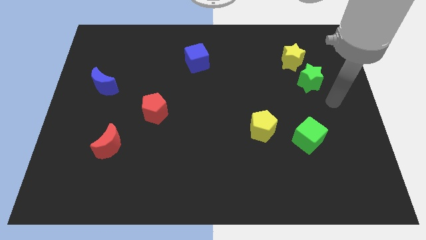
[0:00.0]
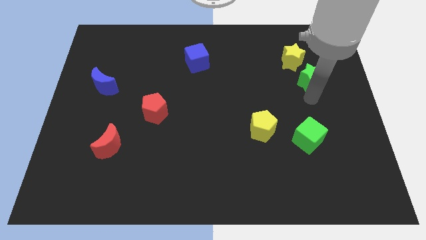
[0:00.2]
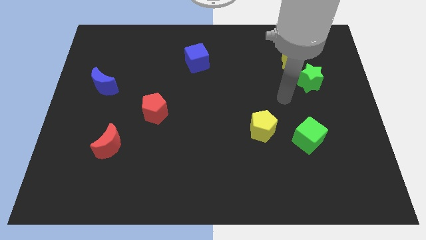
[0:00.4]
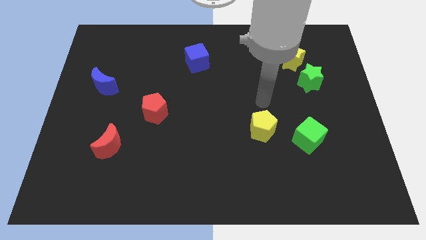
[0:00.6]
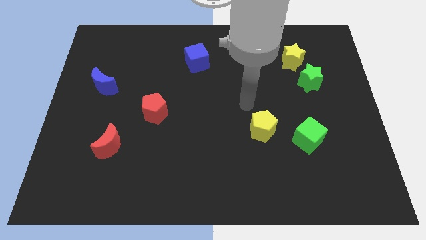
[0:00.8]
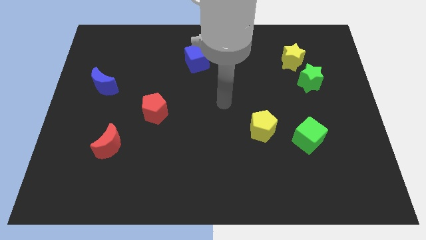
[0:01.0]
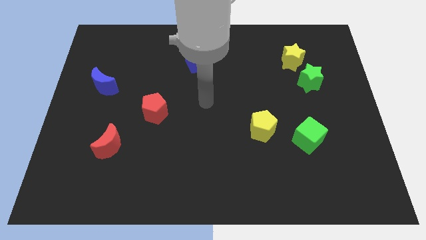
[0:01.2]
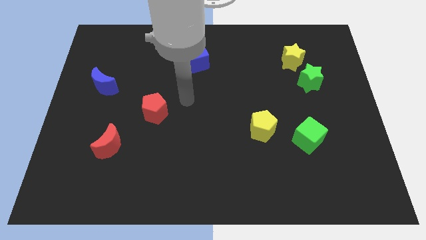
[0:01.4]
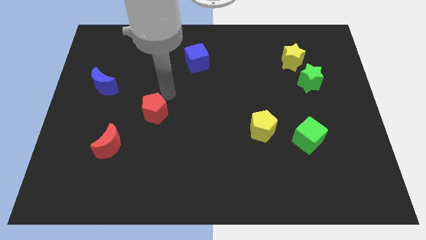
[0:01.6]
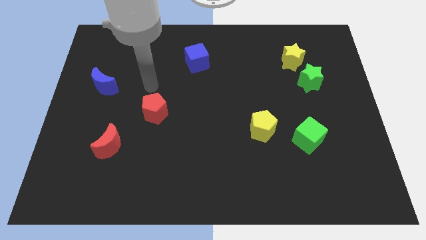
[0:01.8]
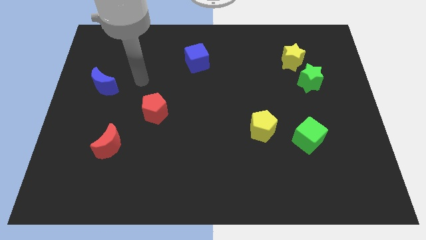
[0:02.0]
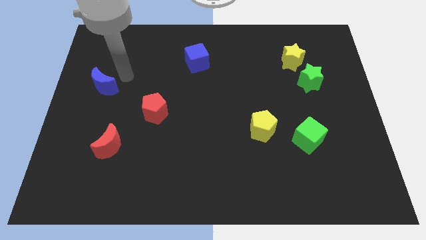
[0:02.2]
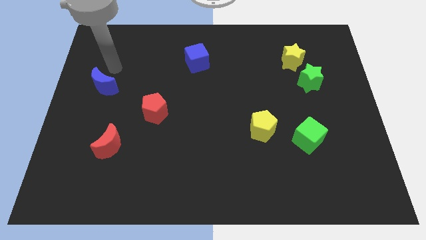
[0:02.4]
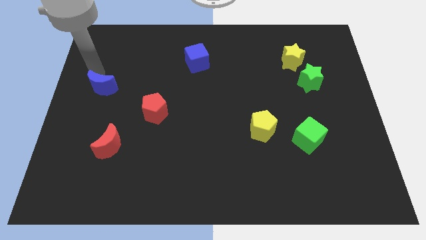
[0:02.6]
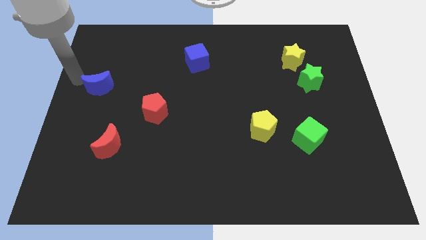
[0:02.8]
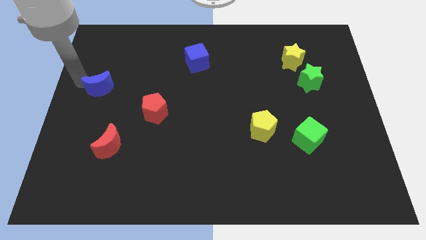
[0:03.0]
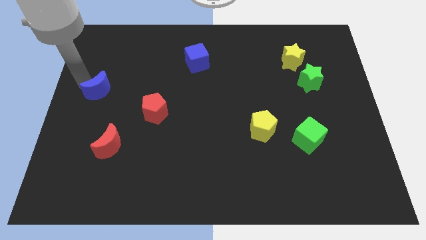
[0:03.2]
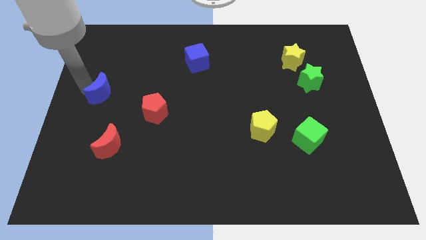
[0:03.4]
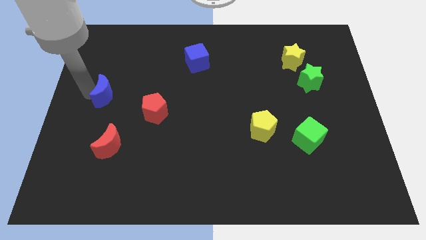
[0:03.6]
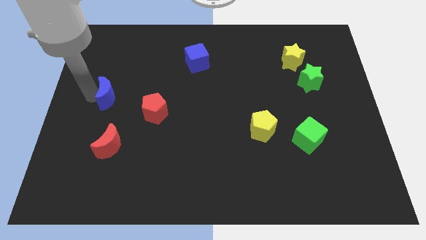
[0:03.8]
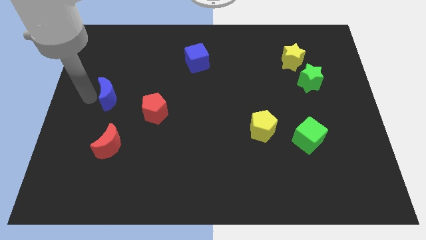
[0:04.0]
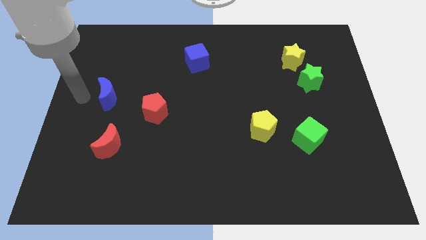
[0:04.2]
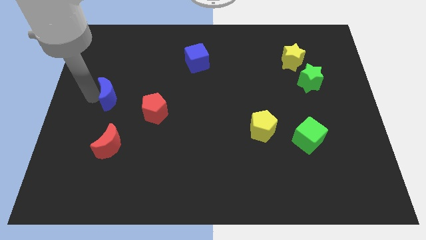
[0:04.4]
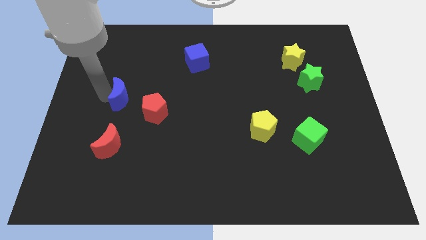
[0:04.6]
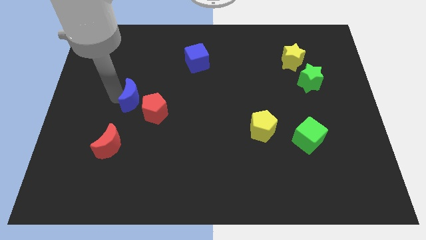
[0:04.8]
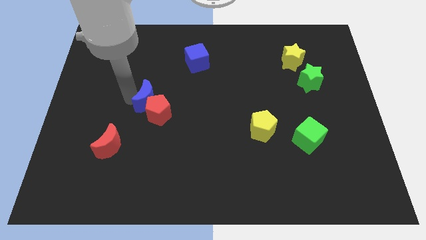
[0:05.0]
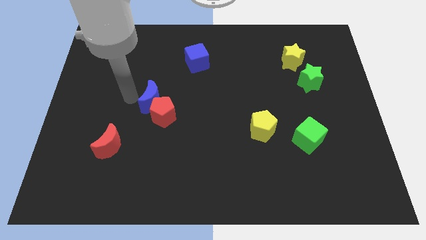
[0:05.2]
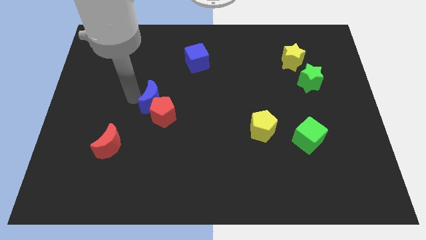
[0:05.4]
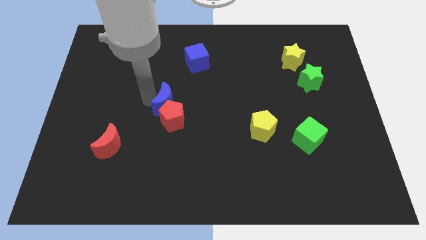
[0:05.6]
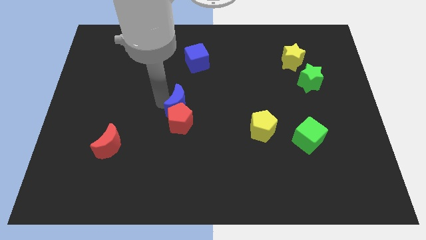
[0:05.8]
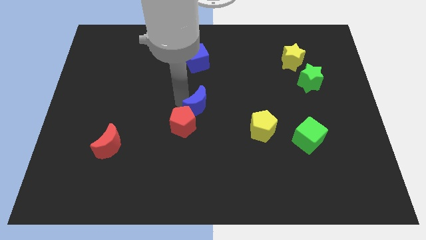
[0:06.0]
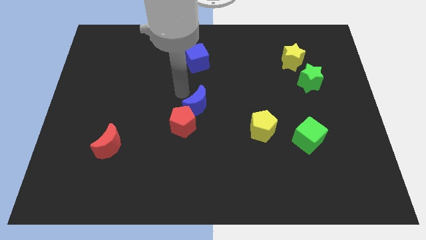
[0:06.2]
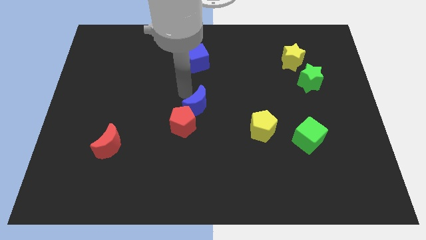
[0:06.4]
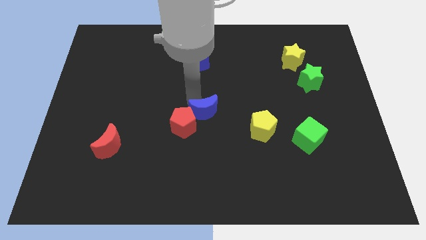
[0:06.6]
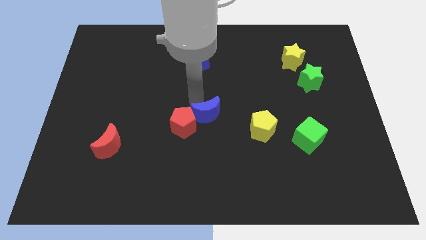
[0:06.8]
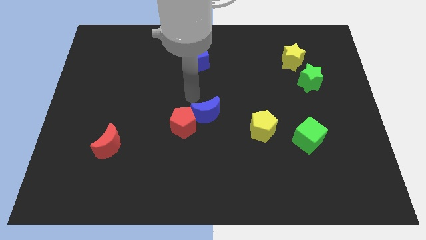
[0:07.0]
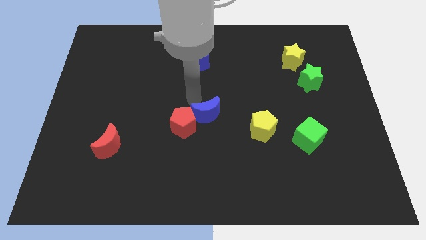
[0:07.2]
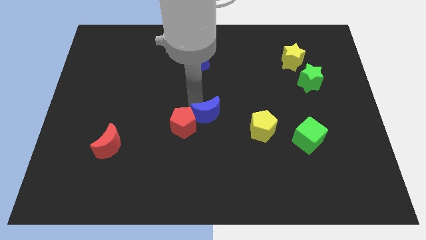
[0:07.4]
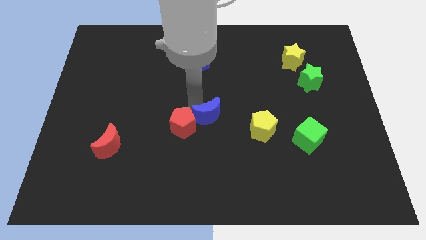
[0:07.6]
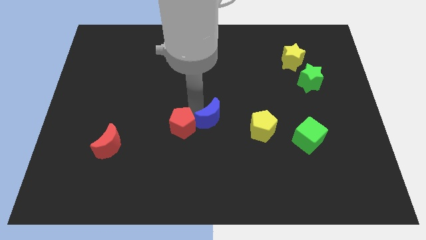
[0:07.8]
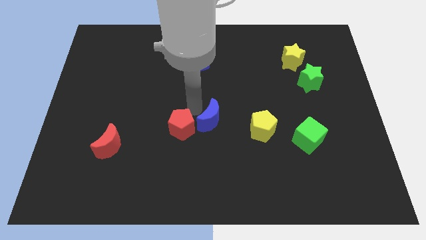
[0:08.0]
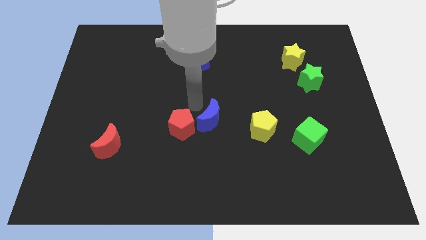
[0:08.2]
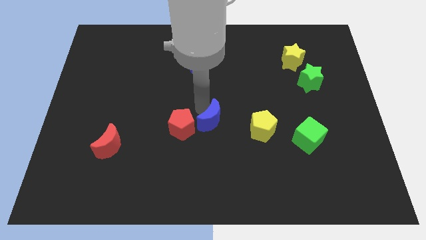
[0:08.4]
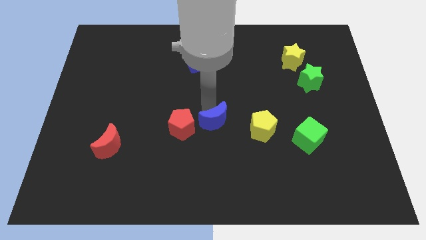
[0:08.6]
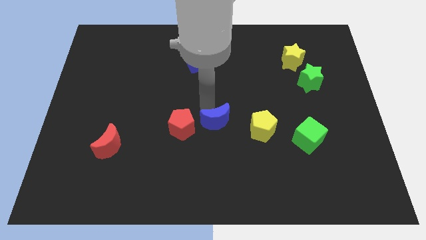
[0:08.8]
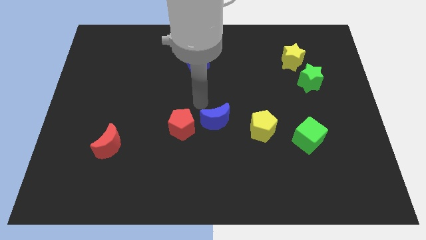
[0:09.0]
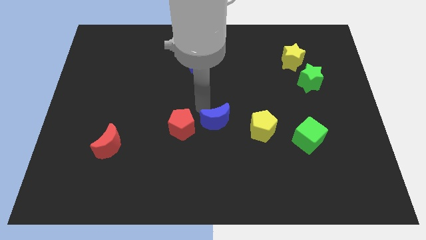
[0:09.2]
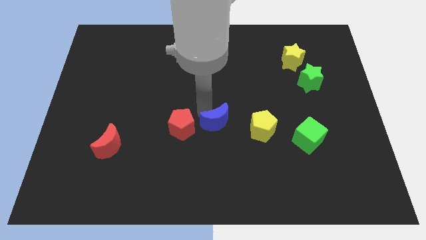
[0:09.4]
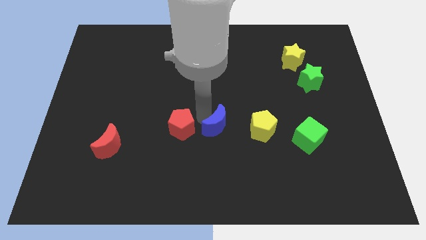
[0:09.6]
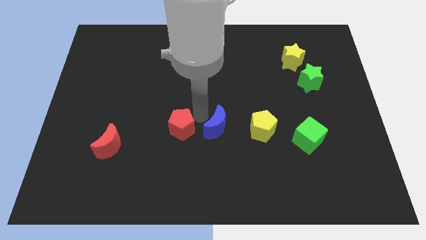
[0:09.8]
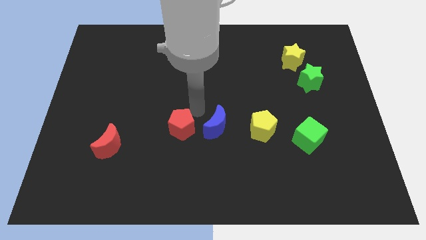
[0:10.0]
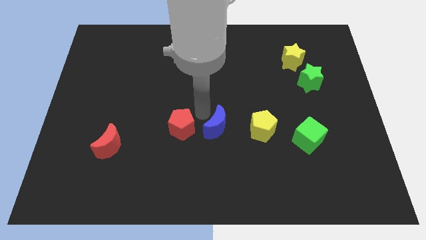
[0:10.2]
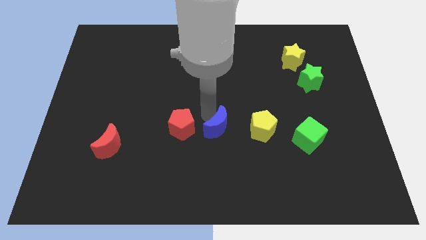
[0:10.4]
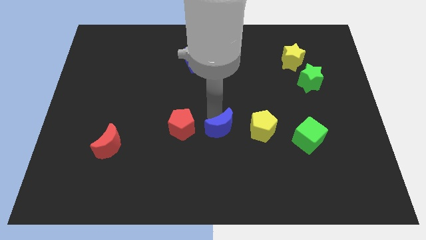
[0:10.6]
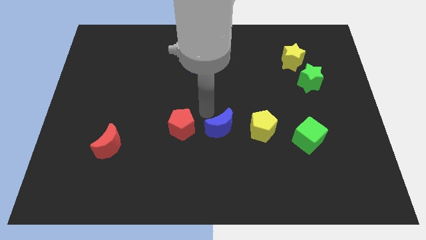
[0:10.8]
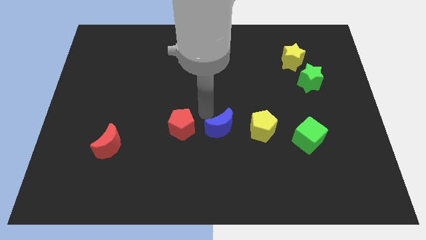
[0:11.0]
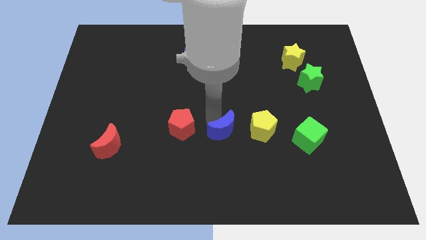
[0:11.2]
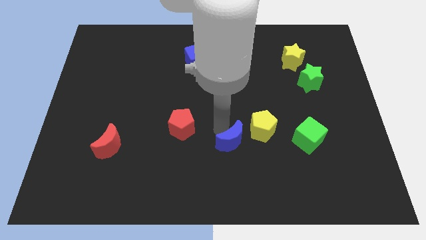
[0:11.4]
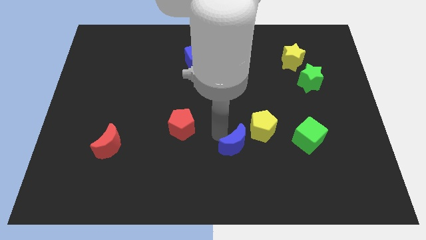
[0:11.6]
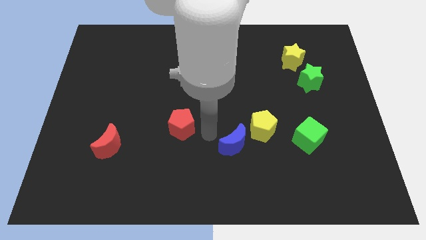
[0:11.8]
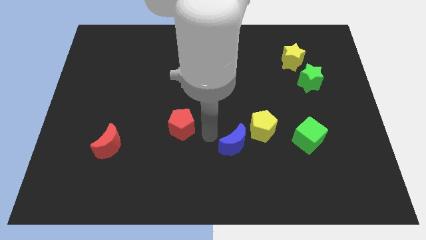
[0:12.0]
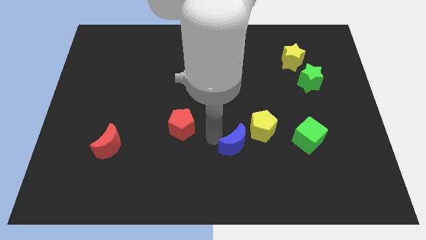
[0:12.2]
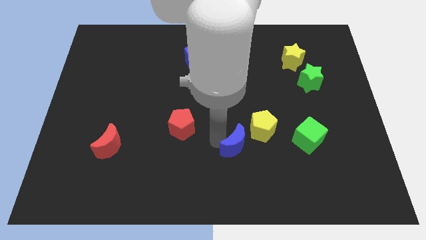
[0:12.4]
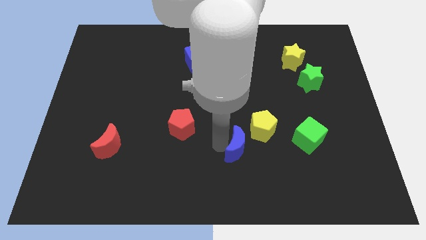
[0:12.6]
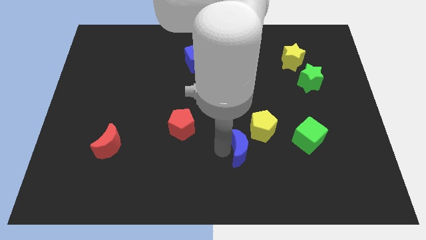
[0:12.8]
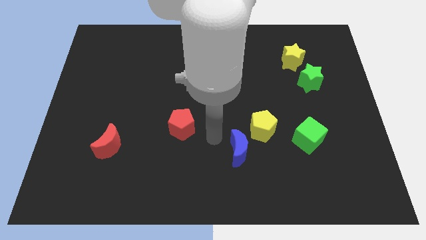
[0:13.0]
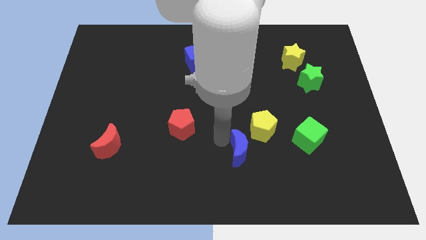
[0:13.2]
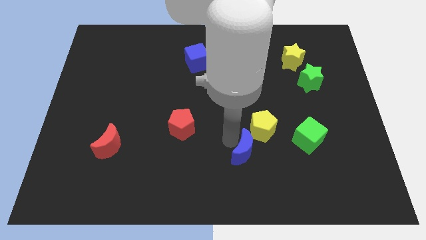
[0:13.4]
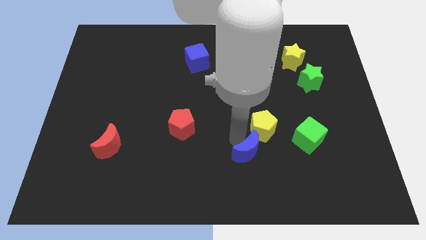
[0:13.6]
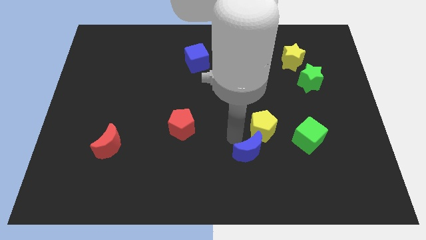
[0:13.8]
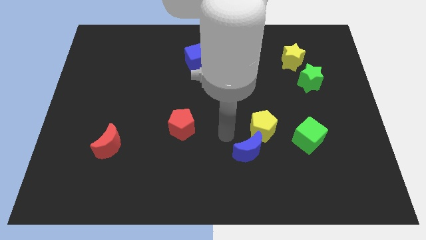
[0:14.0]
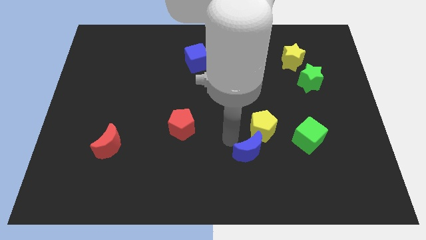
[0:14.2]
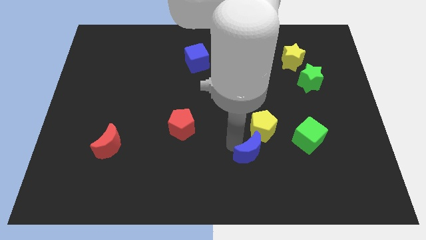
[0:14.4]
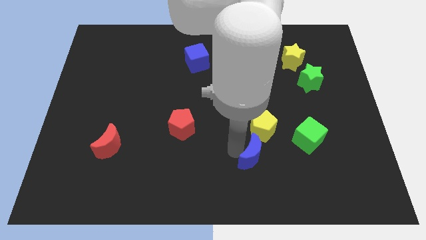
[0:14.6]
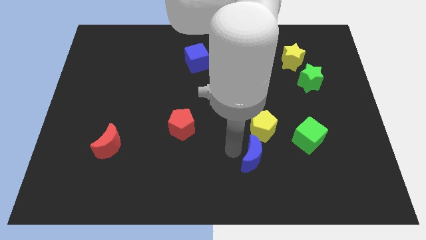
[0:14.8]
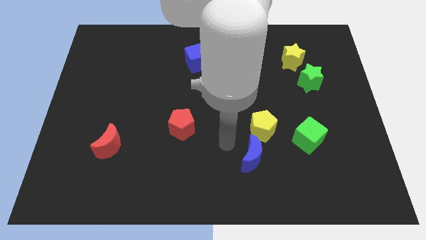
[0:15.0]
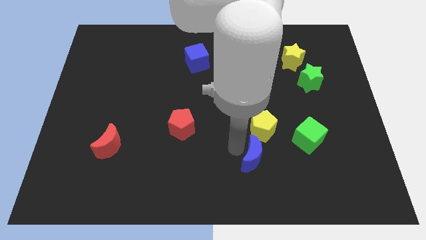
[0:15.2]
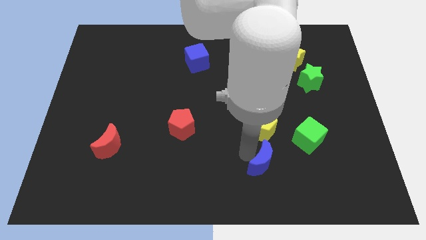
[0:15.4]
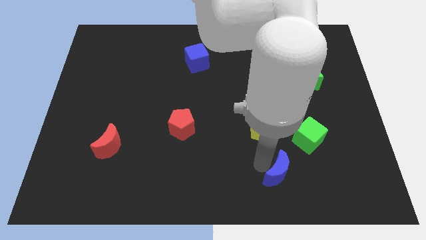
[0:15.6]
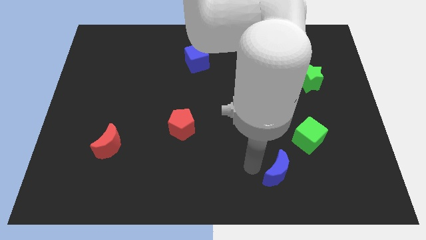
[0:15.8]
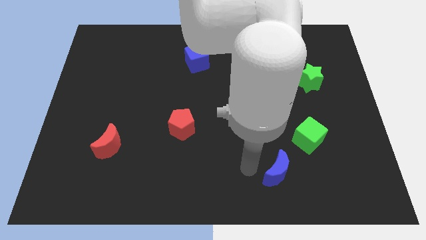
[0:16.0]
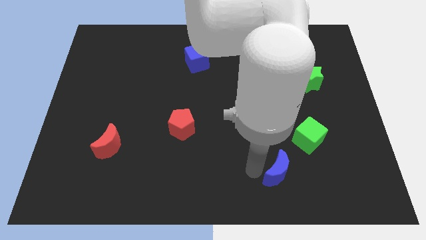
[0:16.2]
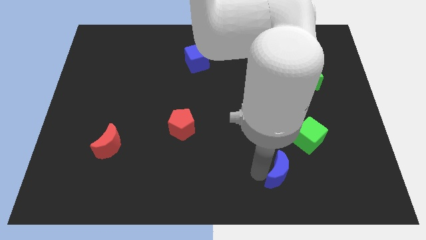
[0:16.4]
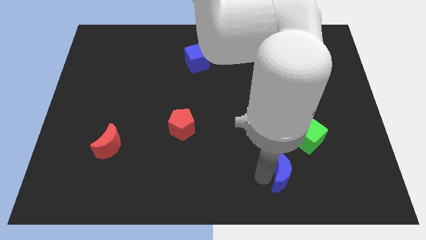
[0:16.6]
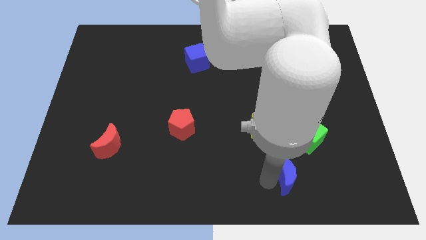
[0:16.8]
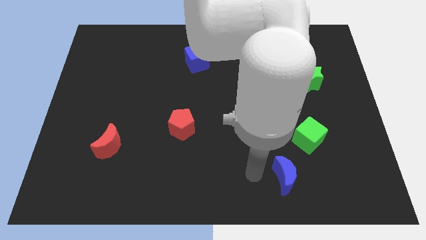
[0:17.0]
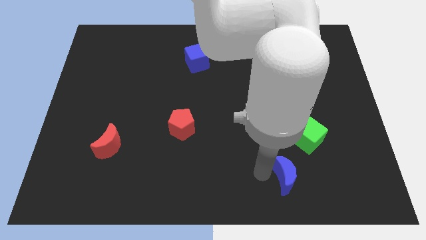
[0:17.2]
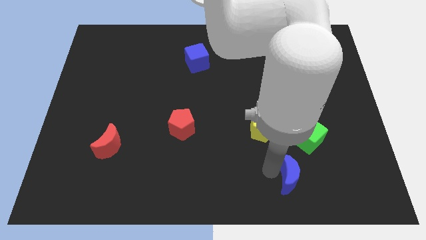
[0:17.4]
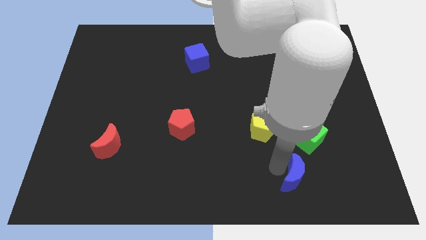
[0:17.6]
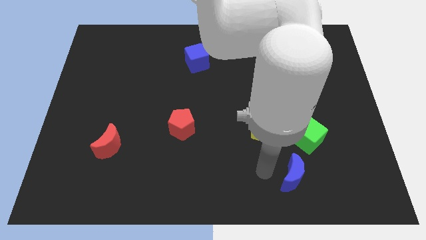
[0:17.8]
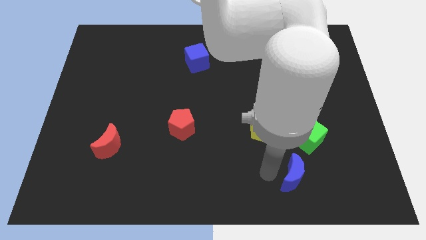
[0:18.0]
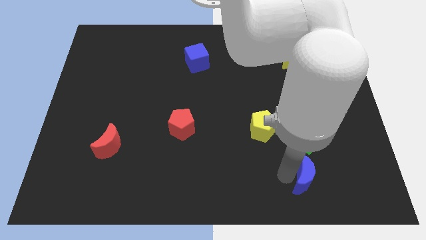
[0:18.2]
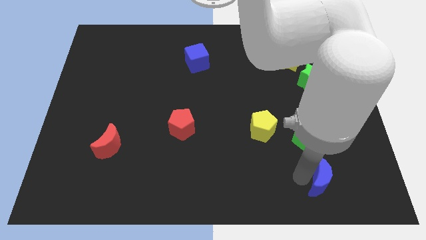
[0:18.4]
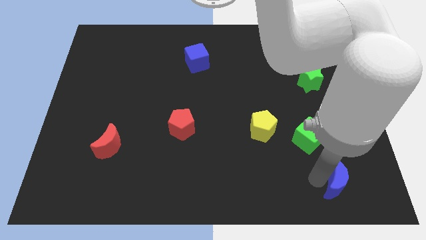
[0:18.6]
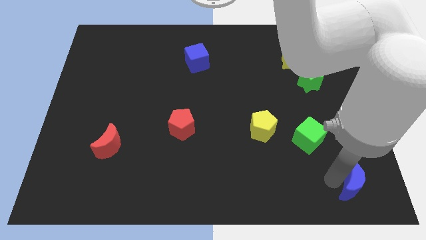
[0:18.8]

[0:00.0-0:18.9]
push the blue moon to the bottom right of the board
